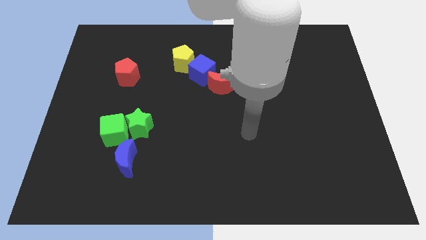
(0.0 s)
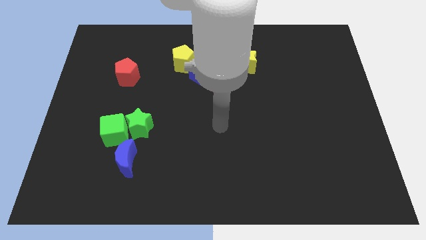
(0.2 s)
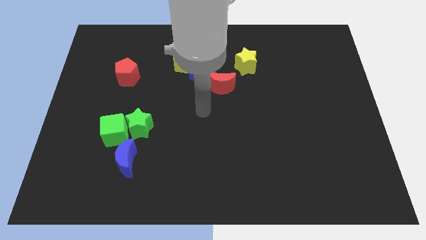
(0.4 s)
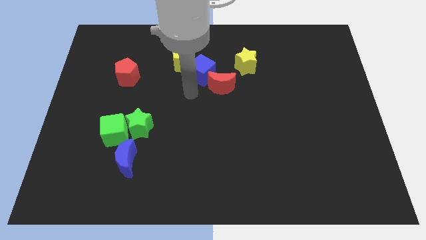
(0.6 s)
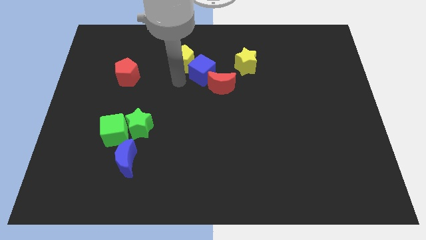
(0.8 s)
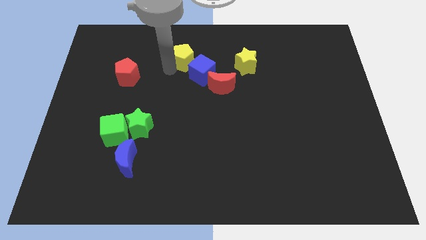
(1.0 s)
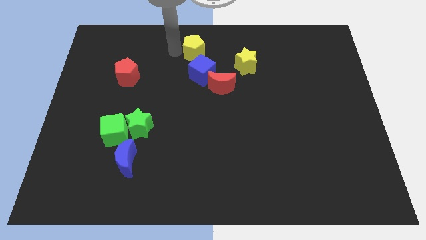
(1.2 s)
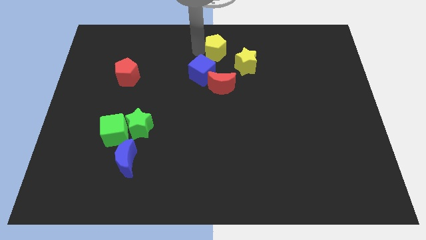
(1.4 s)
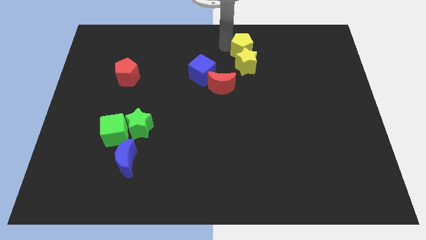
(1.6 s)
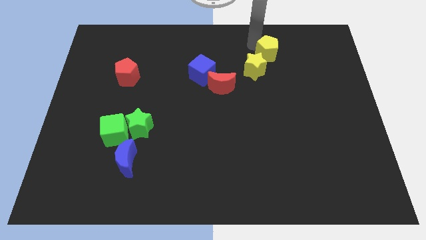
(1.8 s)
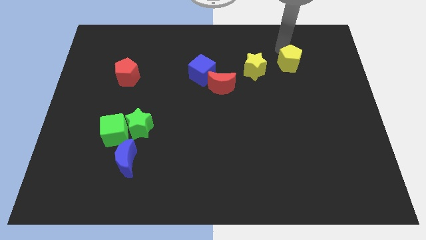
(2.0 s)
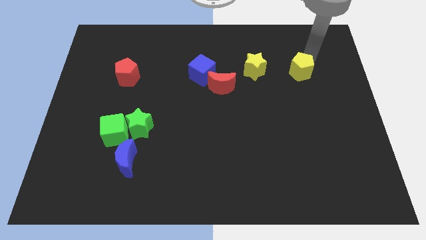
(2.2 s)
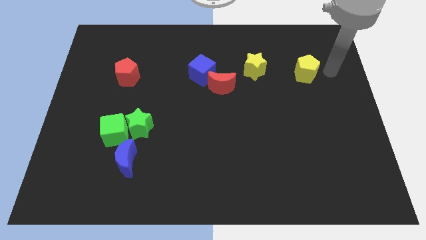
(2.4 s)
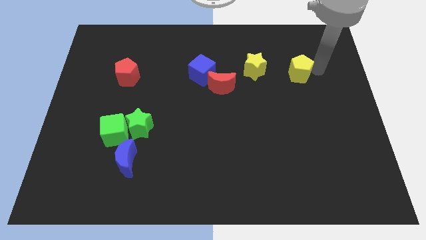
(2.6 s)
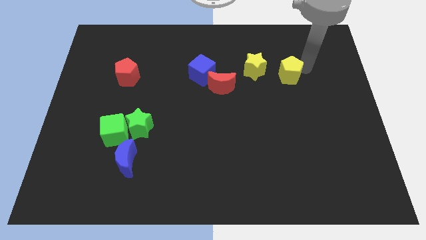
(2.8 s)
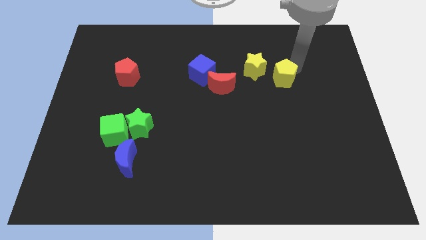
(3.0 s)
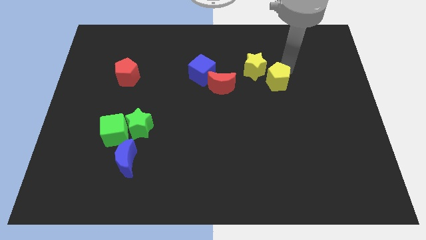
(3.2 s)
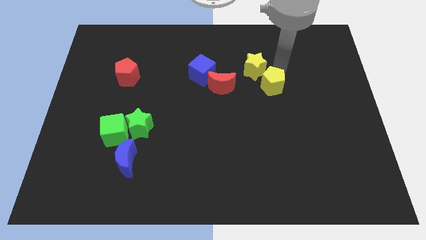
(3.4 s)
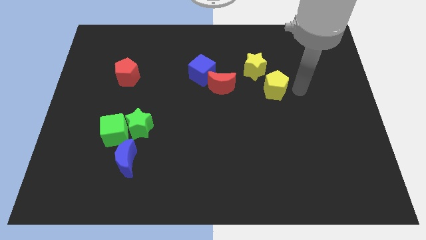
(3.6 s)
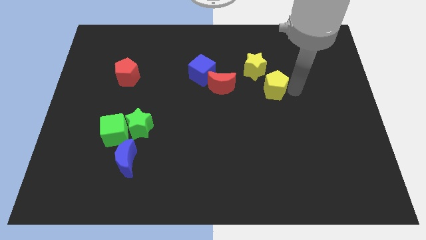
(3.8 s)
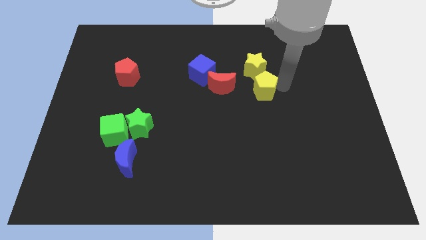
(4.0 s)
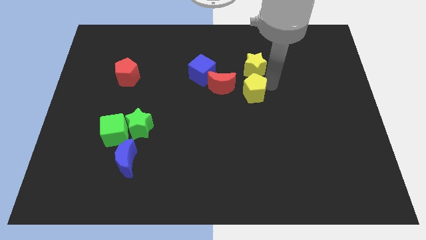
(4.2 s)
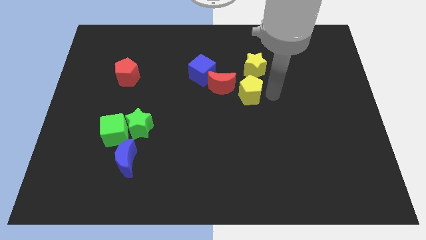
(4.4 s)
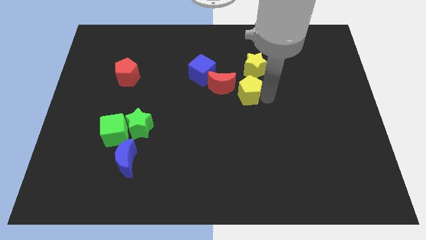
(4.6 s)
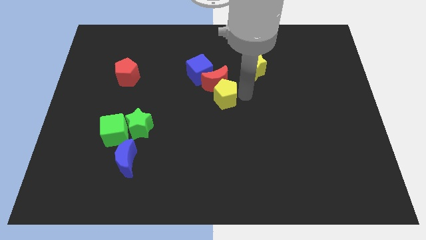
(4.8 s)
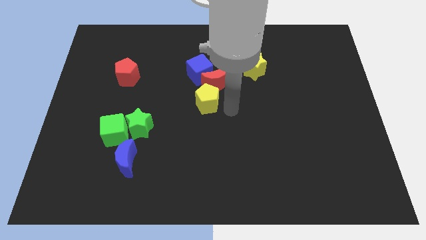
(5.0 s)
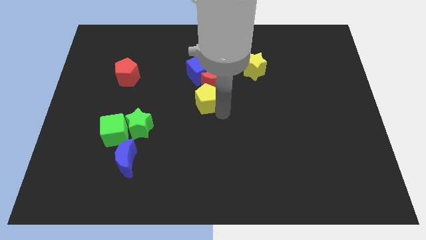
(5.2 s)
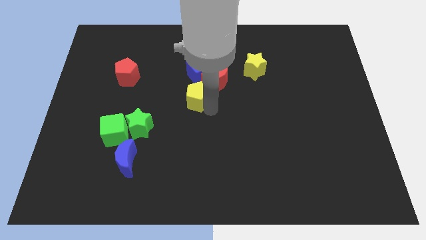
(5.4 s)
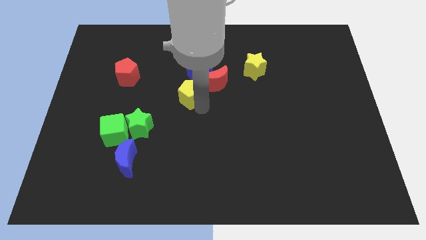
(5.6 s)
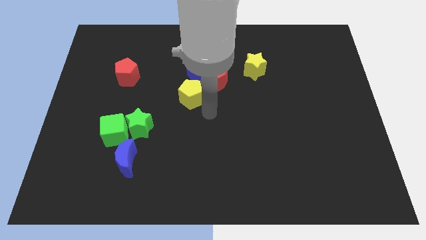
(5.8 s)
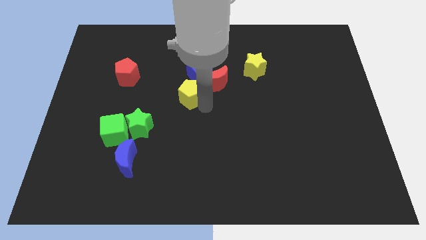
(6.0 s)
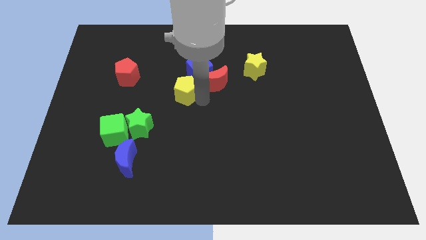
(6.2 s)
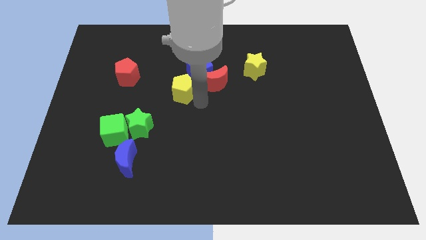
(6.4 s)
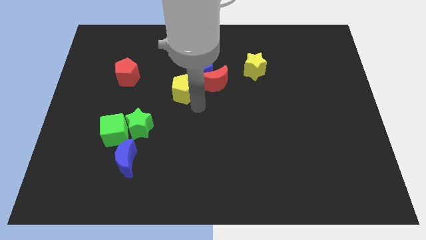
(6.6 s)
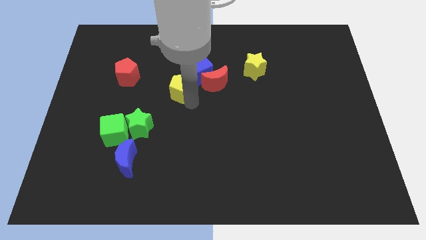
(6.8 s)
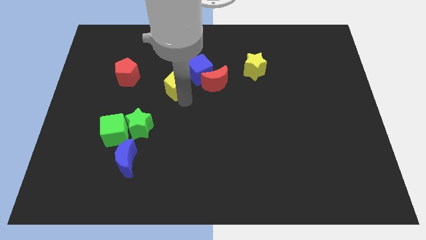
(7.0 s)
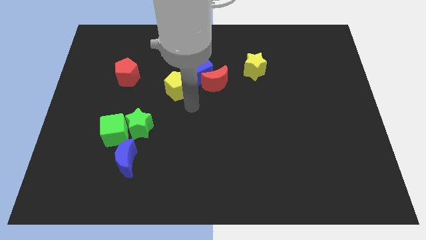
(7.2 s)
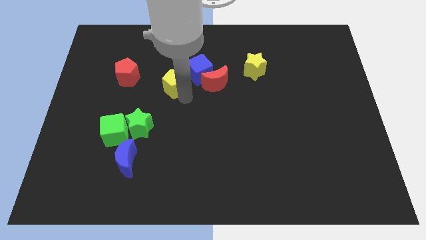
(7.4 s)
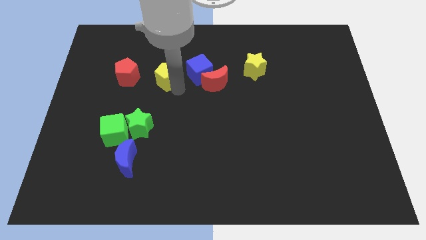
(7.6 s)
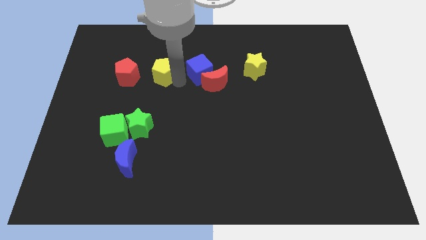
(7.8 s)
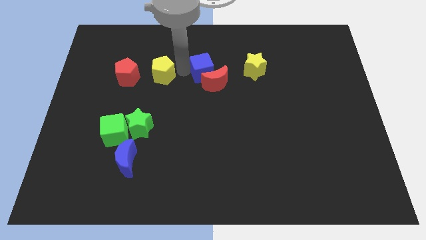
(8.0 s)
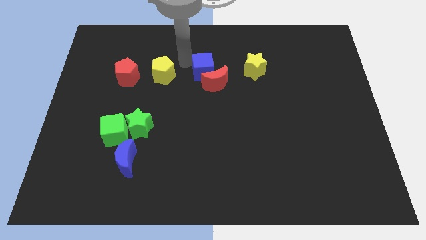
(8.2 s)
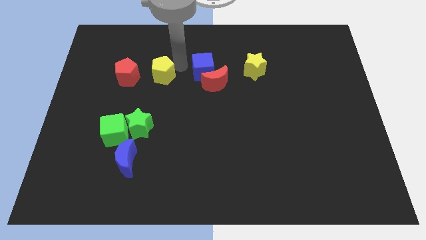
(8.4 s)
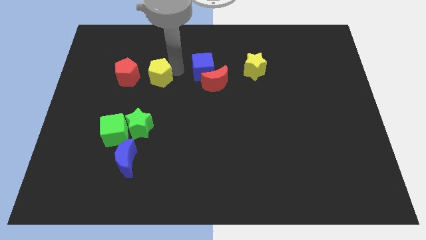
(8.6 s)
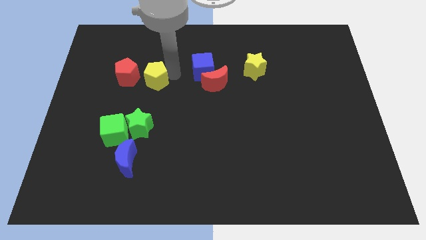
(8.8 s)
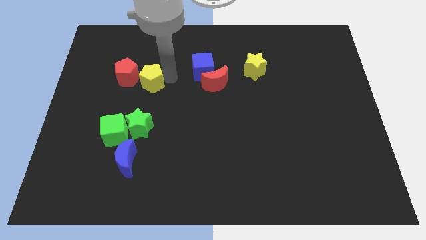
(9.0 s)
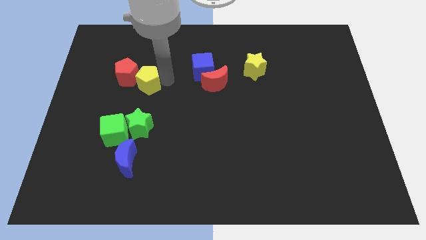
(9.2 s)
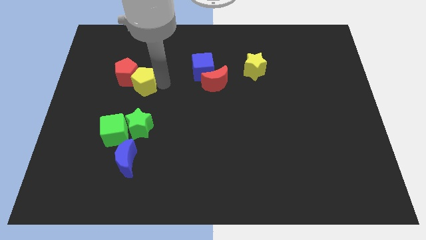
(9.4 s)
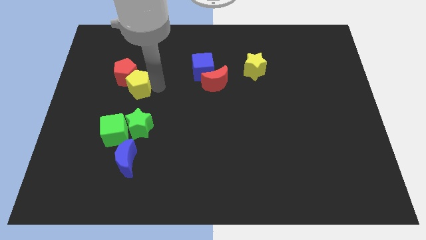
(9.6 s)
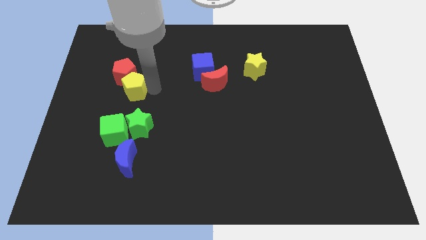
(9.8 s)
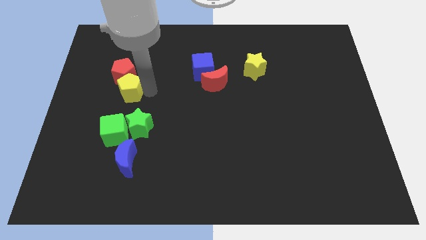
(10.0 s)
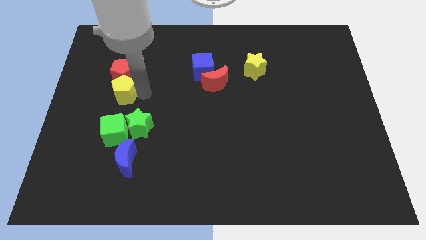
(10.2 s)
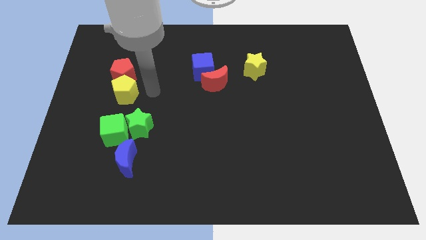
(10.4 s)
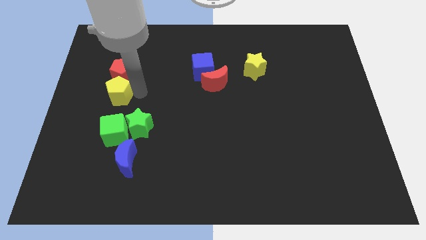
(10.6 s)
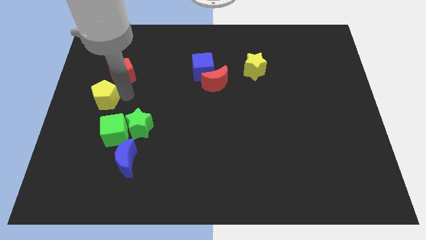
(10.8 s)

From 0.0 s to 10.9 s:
put the yellow pentagon to the left side of the board

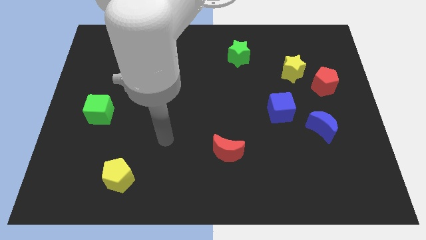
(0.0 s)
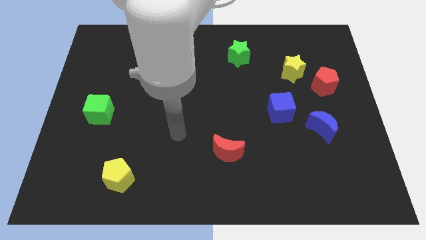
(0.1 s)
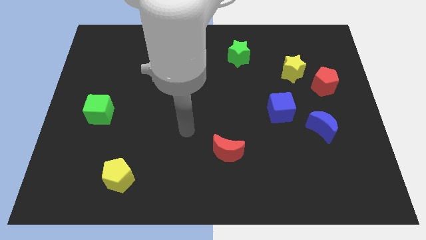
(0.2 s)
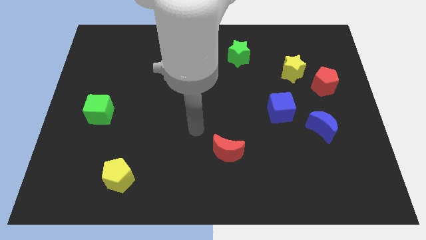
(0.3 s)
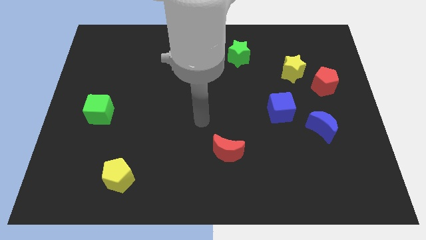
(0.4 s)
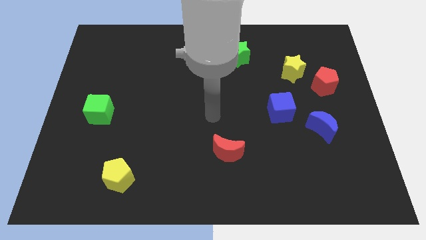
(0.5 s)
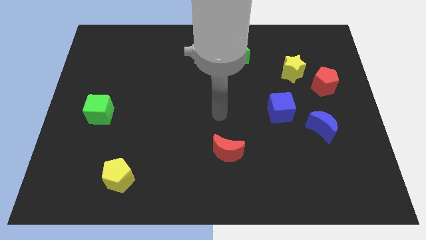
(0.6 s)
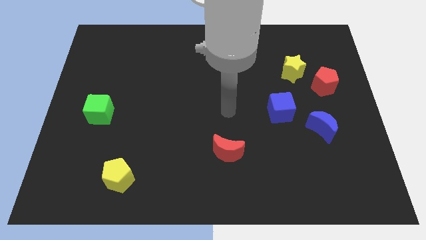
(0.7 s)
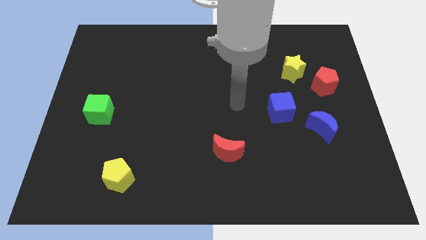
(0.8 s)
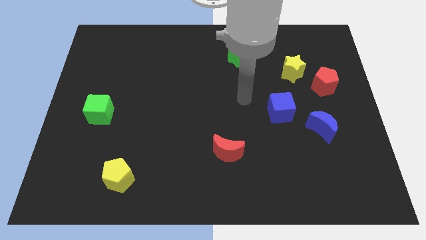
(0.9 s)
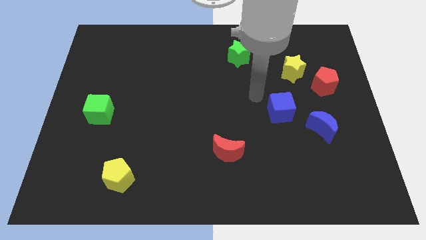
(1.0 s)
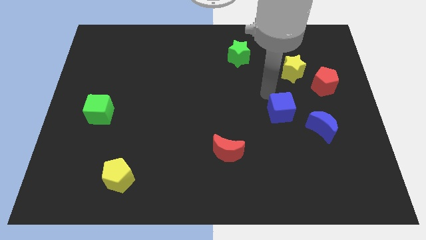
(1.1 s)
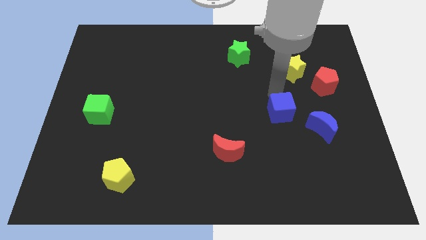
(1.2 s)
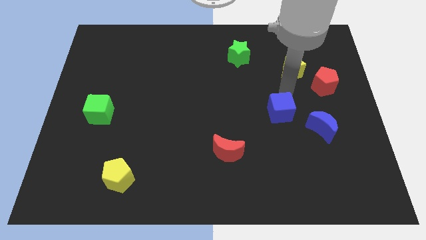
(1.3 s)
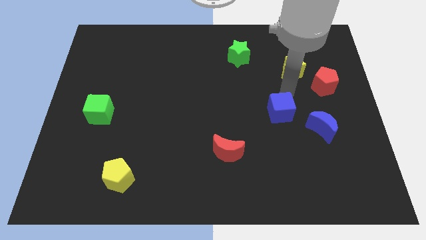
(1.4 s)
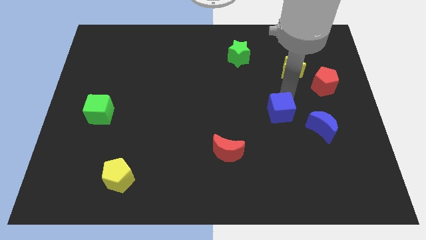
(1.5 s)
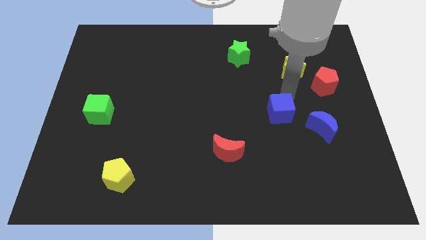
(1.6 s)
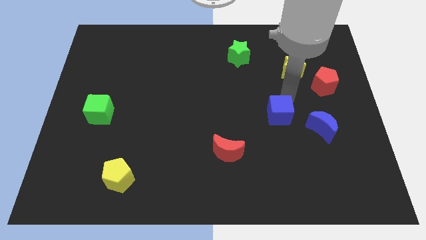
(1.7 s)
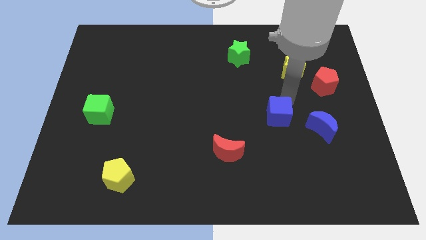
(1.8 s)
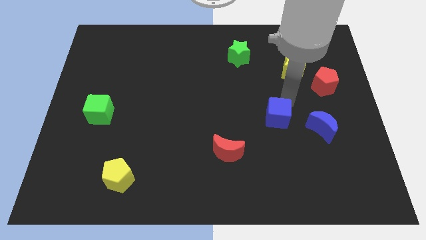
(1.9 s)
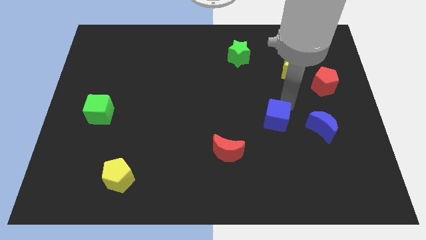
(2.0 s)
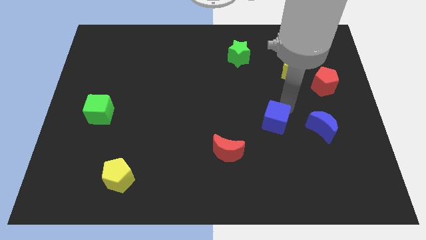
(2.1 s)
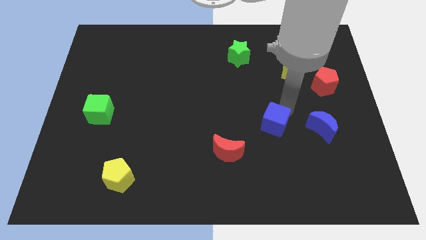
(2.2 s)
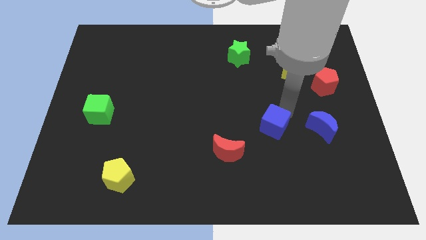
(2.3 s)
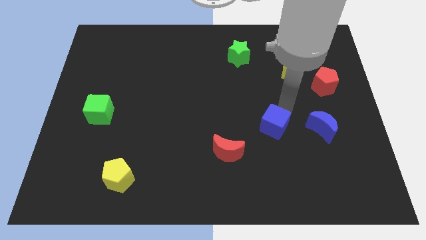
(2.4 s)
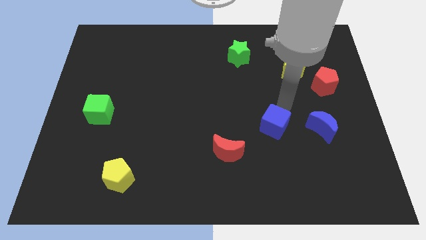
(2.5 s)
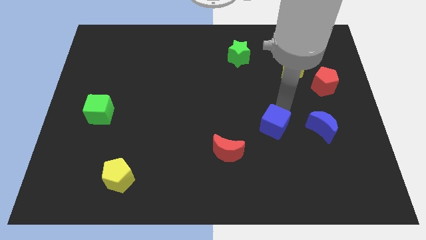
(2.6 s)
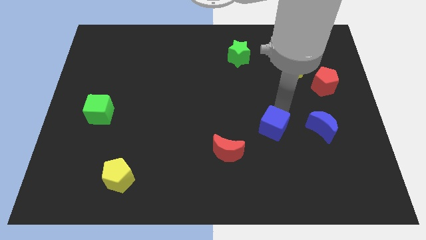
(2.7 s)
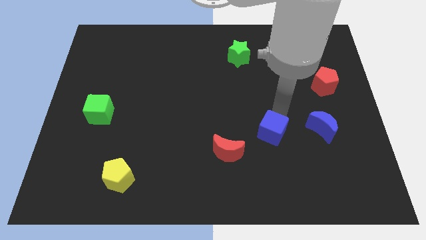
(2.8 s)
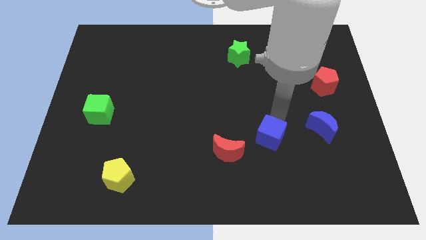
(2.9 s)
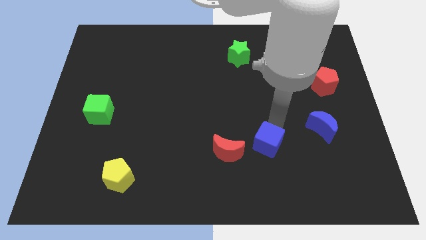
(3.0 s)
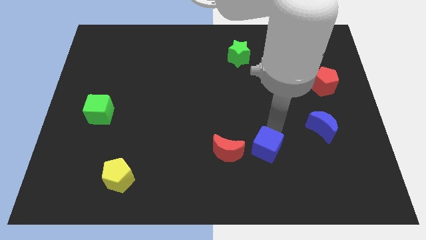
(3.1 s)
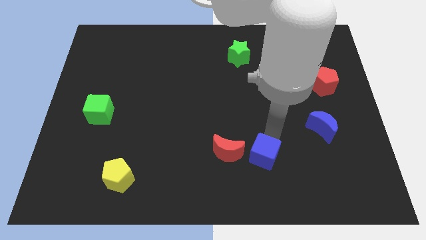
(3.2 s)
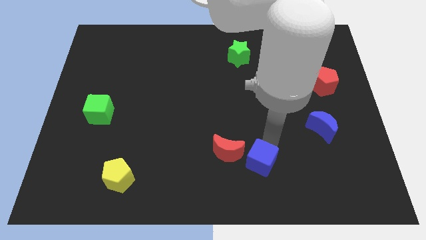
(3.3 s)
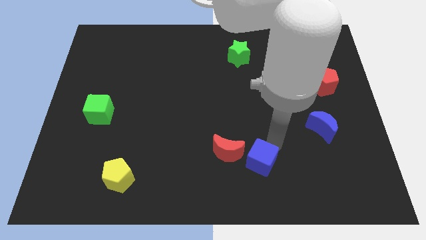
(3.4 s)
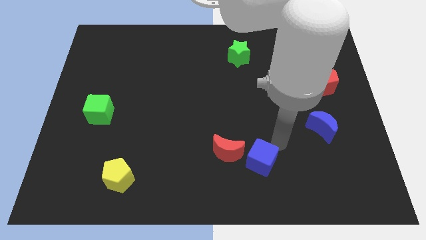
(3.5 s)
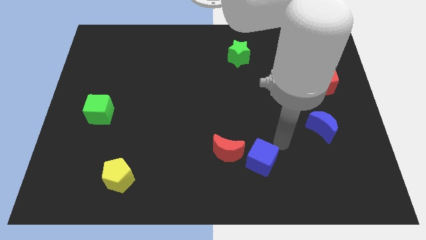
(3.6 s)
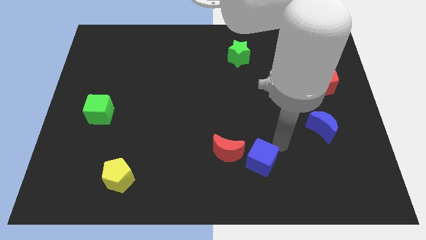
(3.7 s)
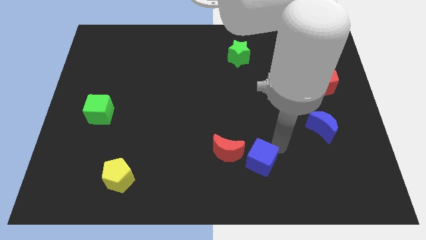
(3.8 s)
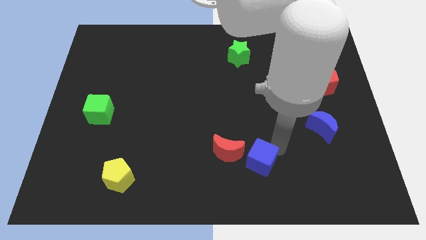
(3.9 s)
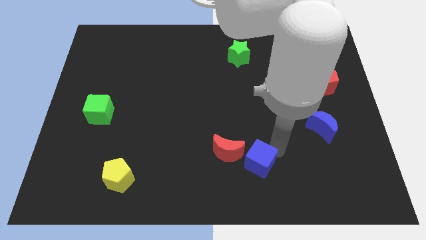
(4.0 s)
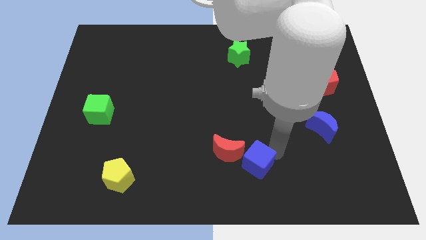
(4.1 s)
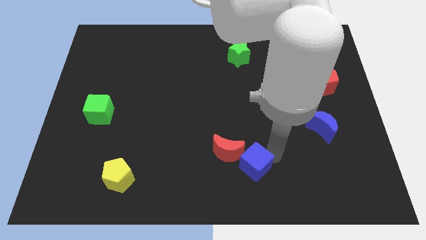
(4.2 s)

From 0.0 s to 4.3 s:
slide the blue cube to the bottom side
